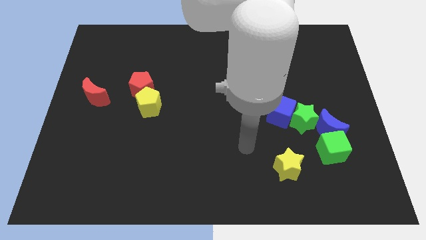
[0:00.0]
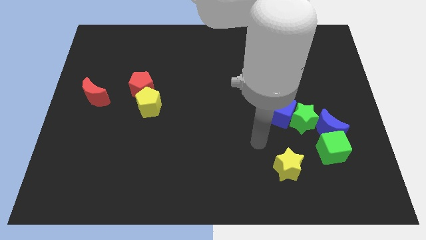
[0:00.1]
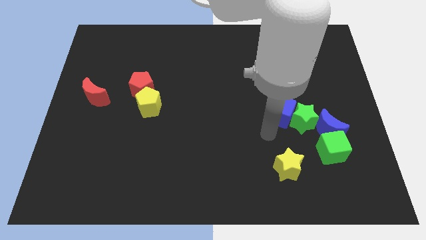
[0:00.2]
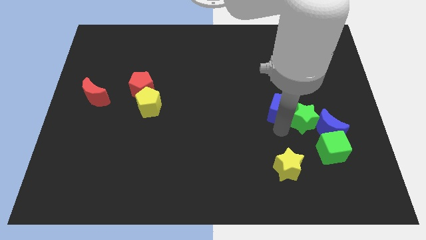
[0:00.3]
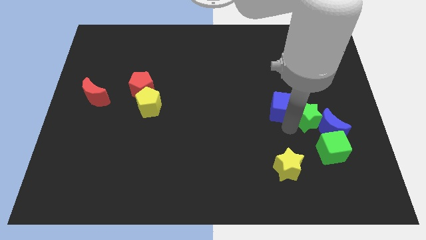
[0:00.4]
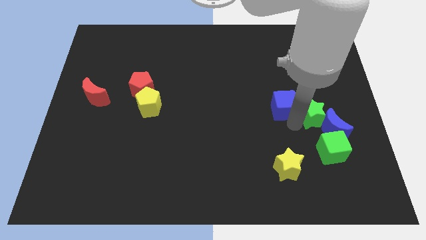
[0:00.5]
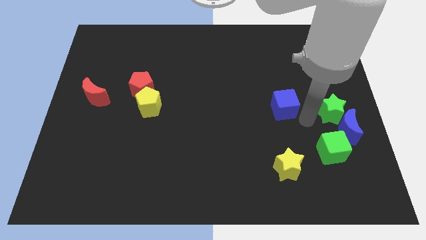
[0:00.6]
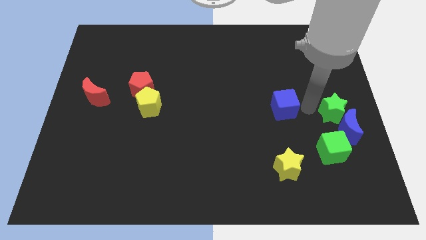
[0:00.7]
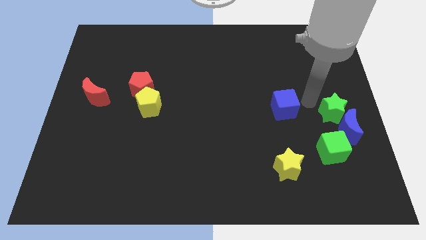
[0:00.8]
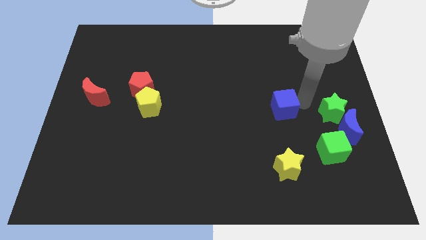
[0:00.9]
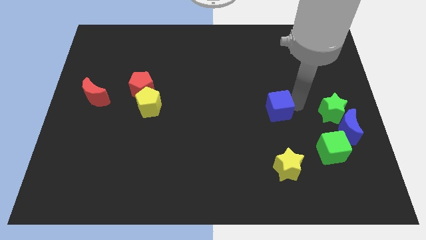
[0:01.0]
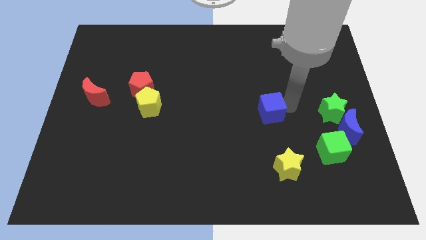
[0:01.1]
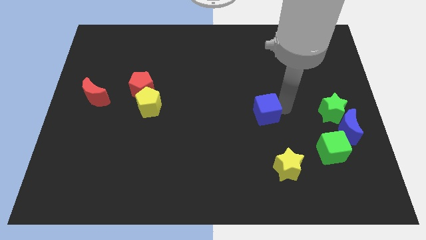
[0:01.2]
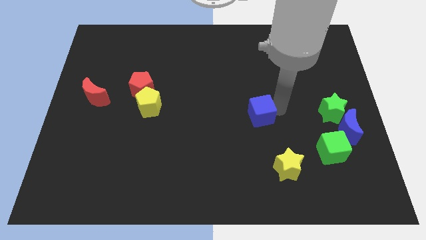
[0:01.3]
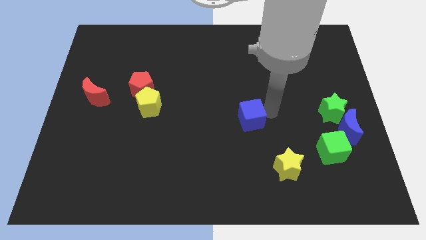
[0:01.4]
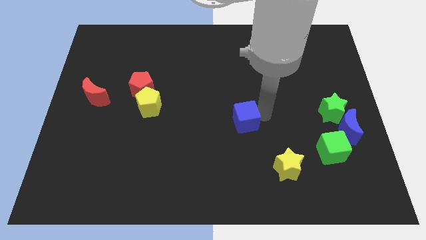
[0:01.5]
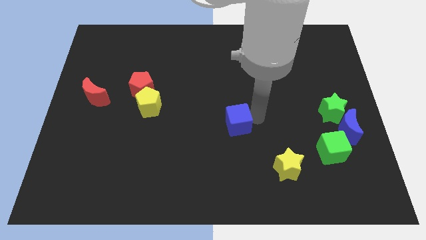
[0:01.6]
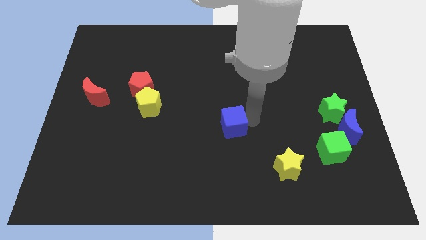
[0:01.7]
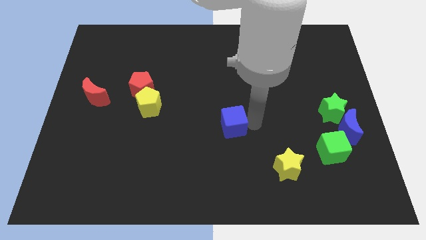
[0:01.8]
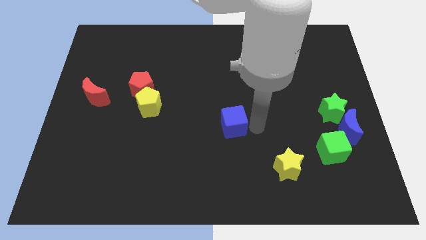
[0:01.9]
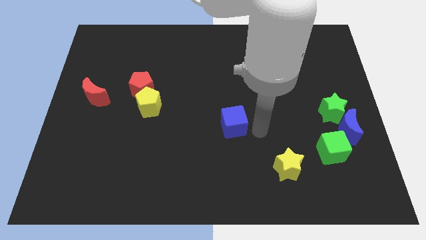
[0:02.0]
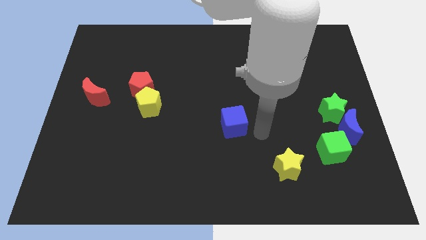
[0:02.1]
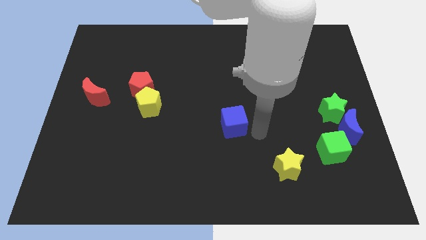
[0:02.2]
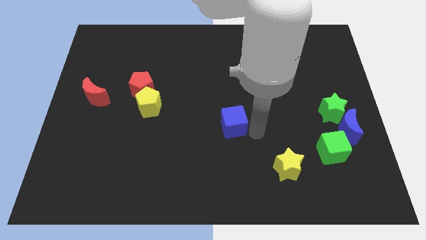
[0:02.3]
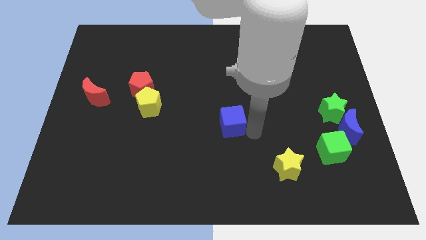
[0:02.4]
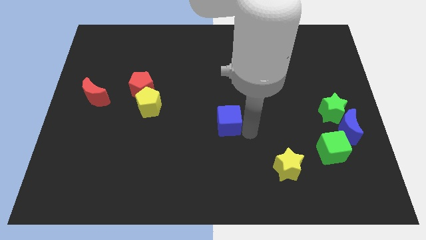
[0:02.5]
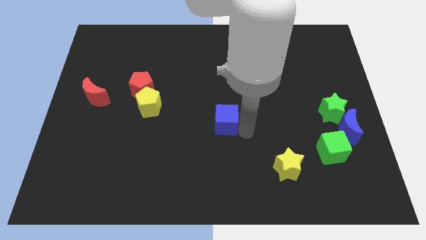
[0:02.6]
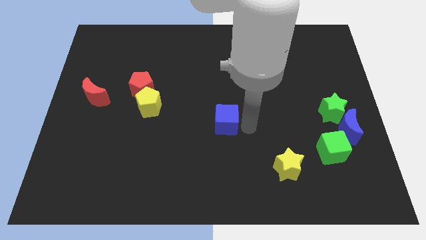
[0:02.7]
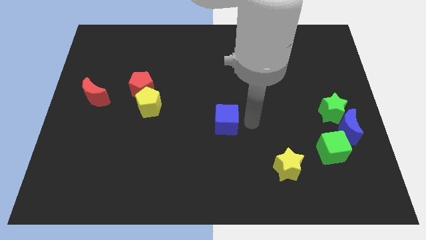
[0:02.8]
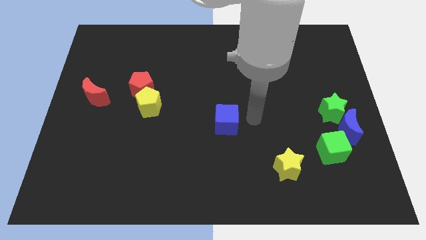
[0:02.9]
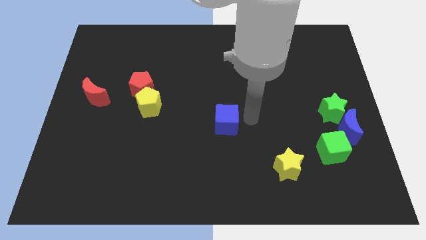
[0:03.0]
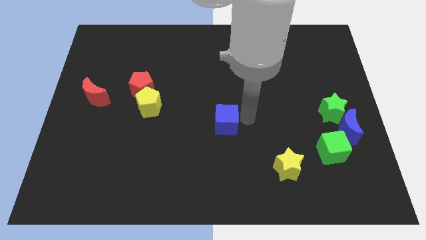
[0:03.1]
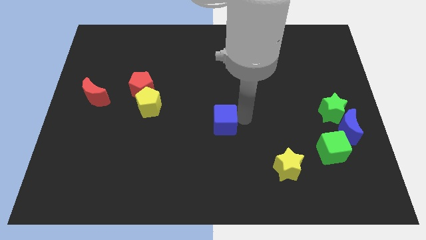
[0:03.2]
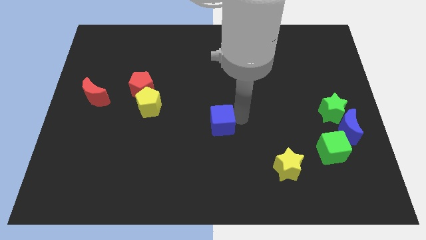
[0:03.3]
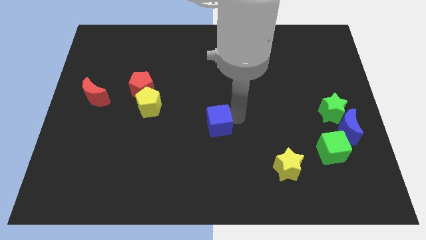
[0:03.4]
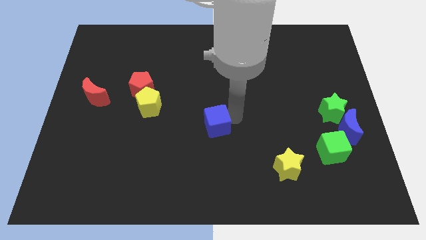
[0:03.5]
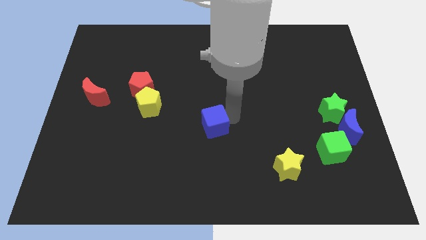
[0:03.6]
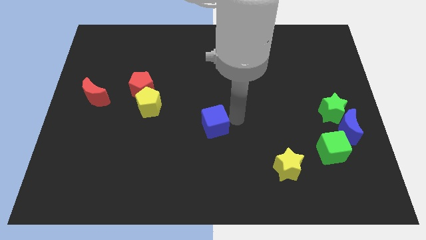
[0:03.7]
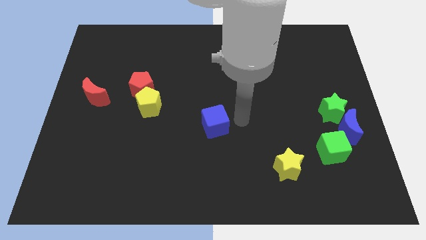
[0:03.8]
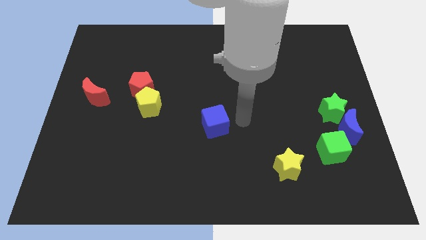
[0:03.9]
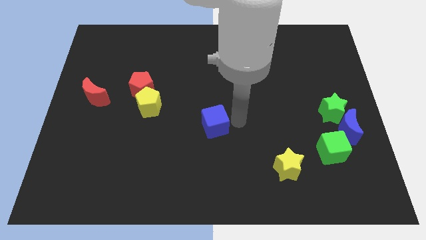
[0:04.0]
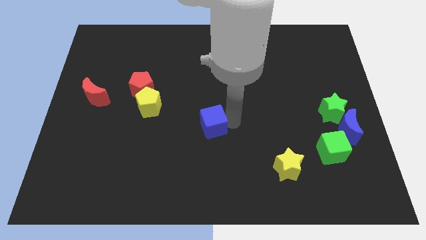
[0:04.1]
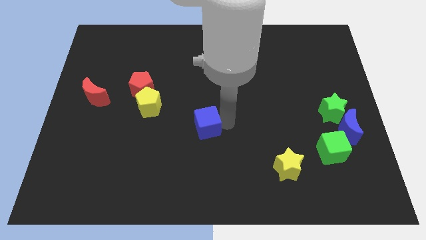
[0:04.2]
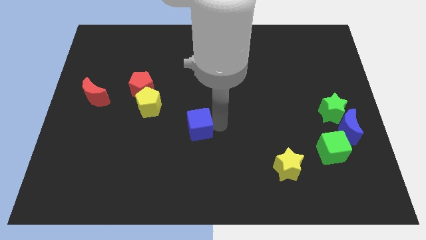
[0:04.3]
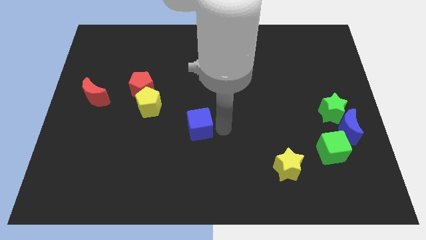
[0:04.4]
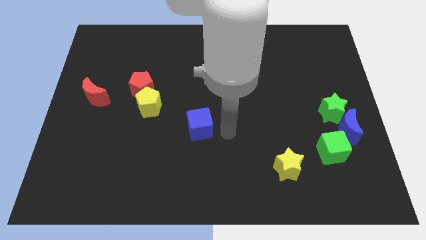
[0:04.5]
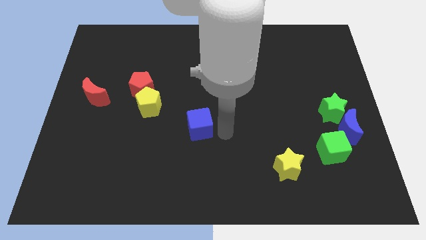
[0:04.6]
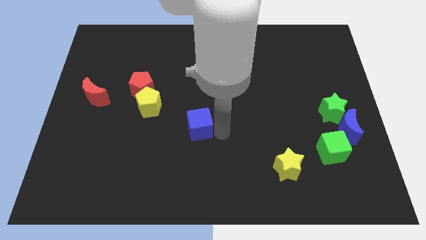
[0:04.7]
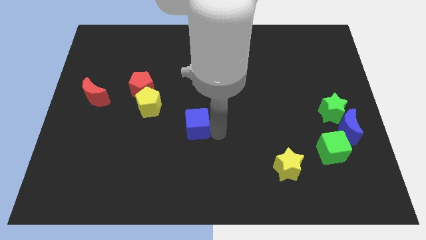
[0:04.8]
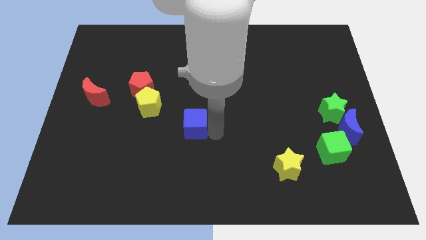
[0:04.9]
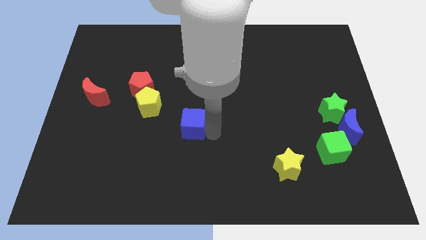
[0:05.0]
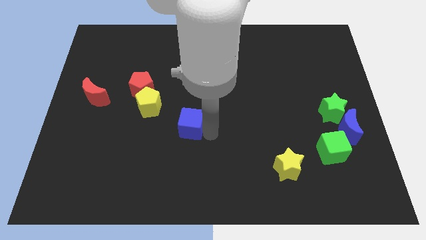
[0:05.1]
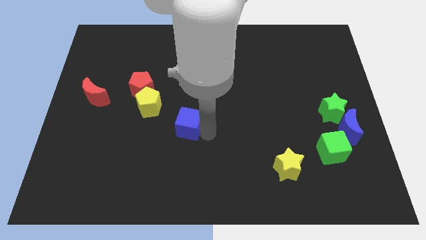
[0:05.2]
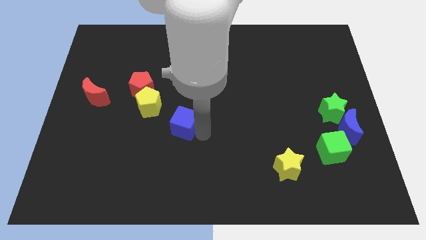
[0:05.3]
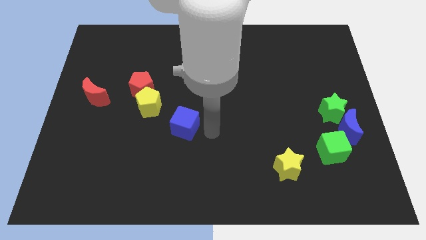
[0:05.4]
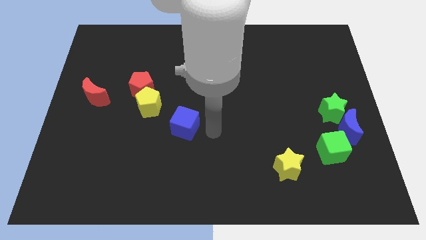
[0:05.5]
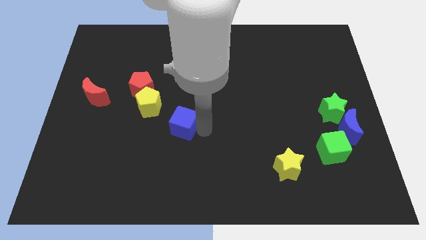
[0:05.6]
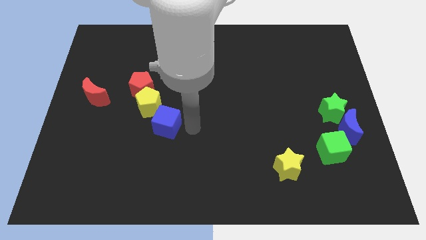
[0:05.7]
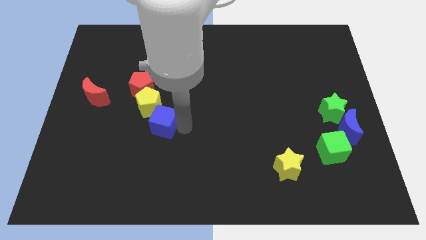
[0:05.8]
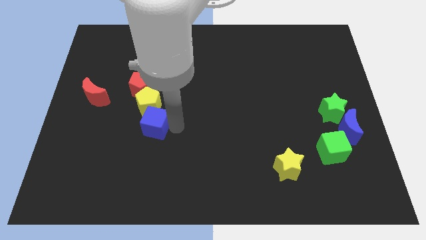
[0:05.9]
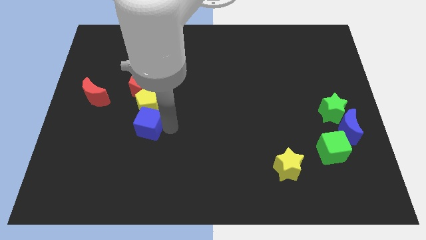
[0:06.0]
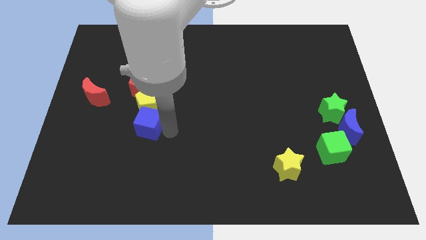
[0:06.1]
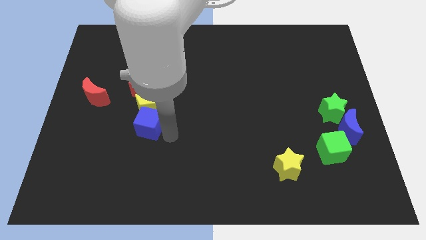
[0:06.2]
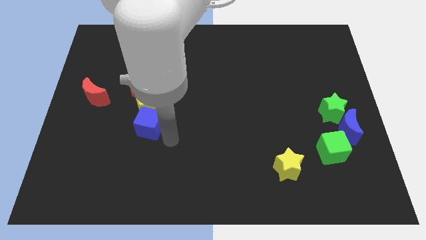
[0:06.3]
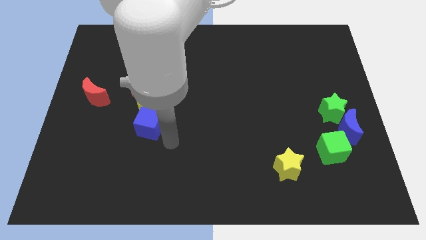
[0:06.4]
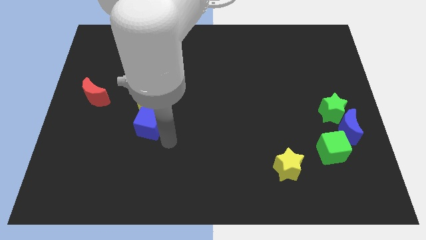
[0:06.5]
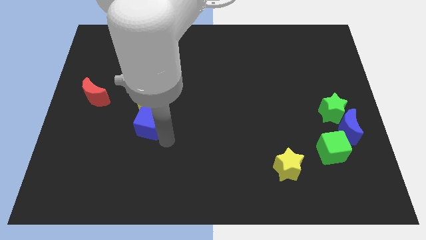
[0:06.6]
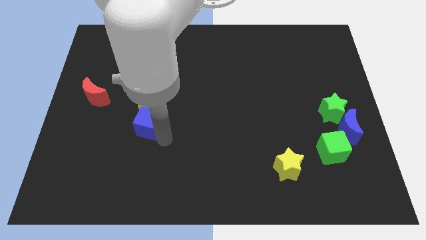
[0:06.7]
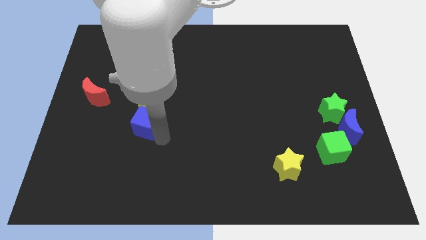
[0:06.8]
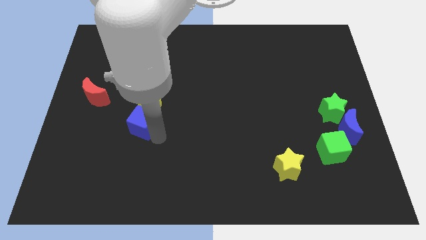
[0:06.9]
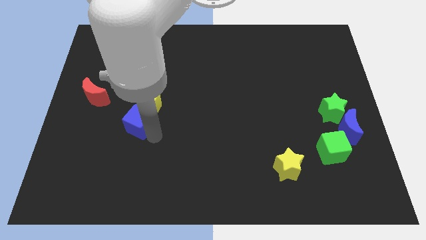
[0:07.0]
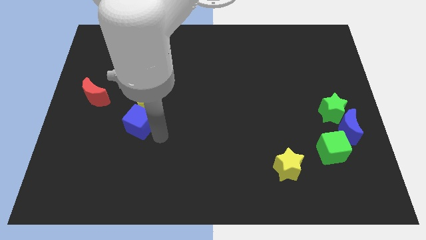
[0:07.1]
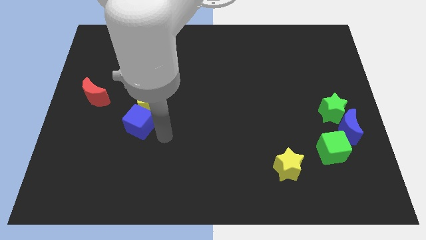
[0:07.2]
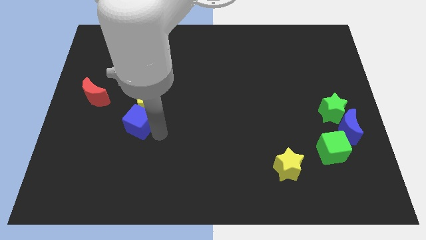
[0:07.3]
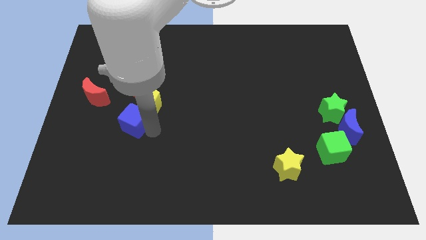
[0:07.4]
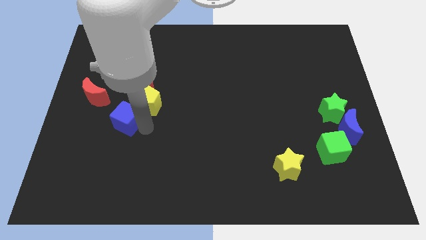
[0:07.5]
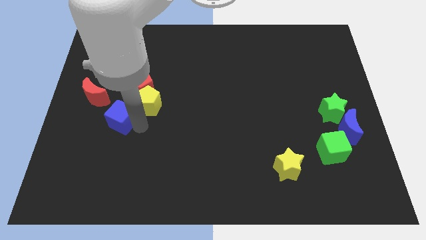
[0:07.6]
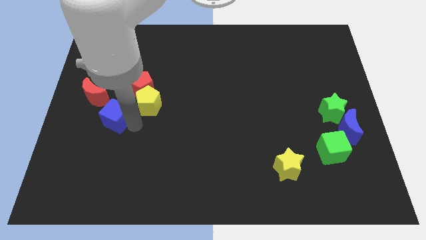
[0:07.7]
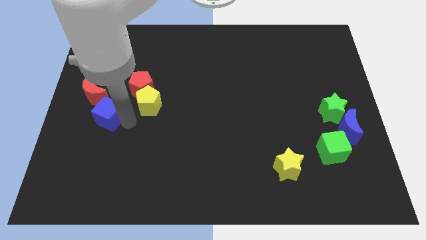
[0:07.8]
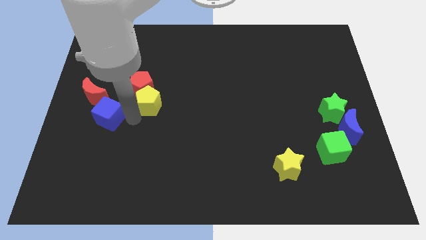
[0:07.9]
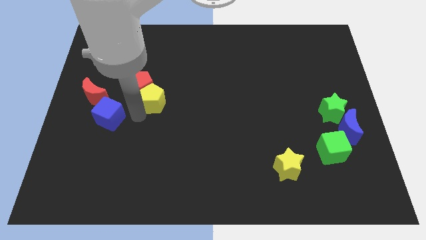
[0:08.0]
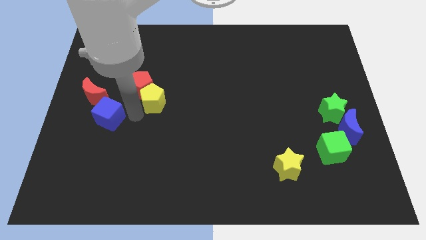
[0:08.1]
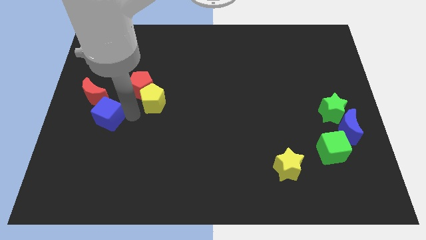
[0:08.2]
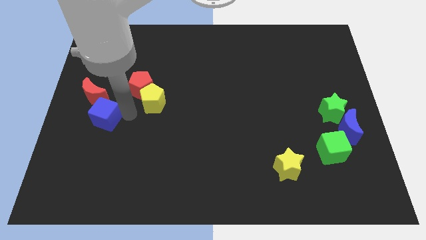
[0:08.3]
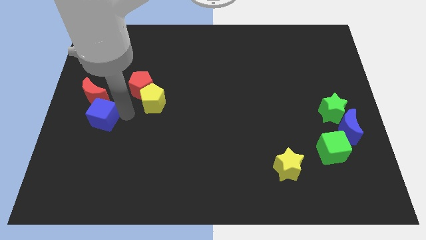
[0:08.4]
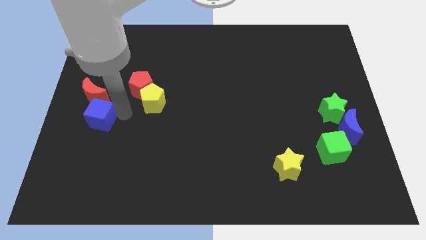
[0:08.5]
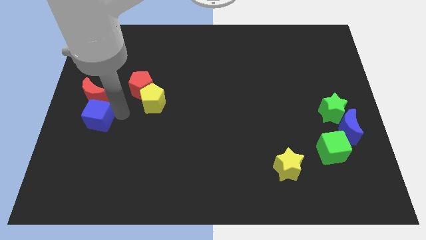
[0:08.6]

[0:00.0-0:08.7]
move the blue cube to the center left
